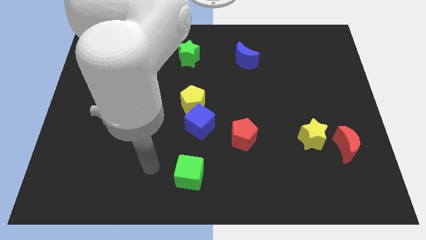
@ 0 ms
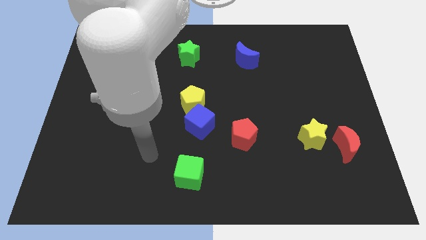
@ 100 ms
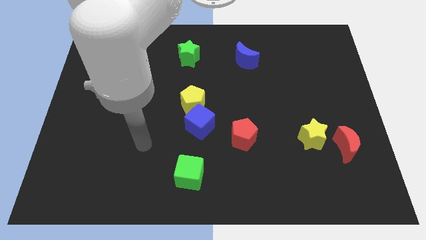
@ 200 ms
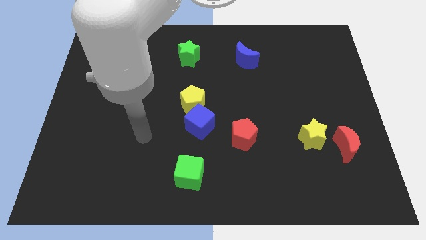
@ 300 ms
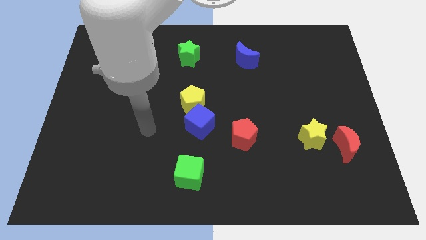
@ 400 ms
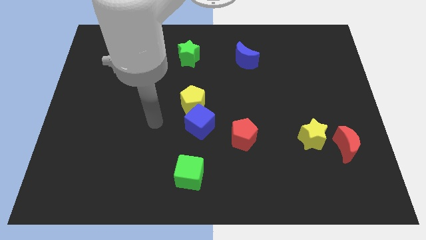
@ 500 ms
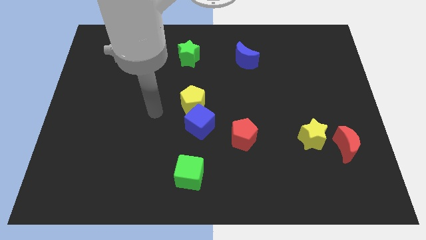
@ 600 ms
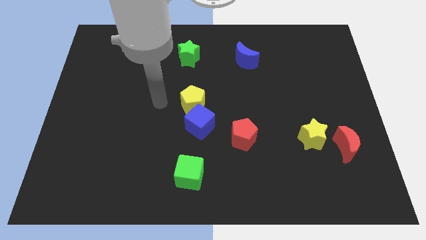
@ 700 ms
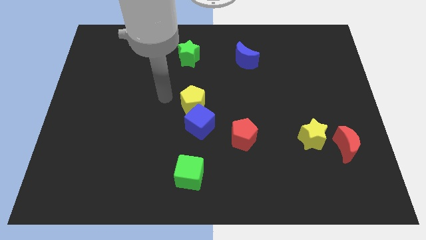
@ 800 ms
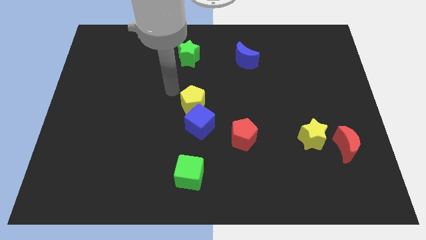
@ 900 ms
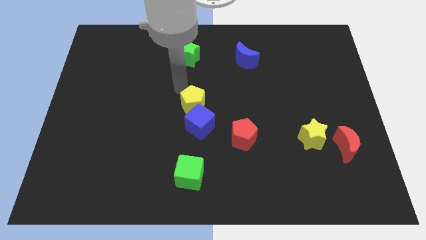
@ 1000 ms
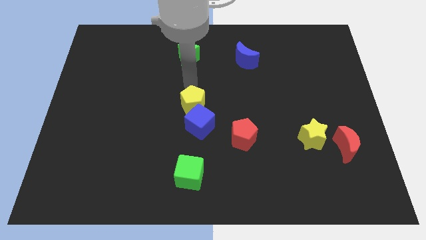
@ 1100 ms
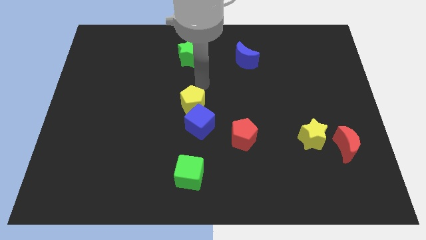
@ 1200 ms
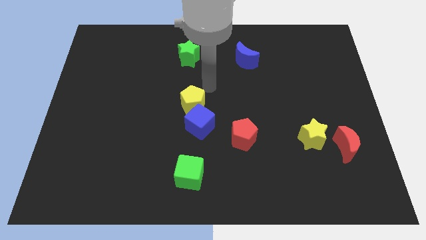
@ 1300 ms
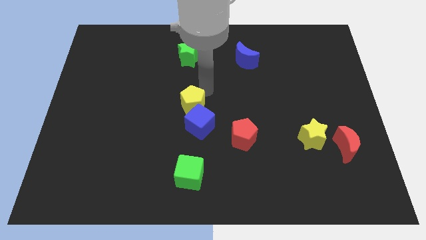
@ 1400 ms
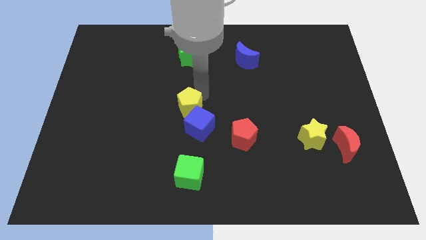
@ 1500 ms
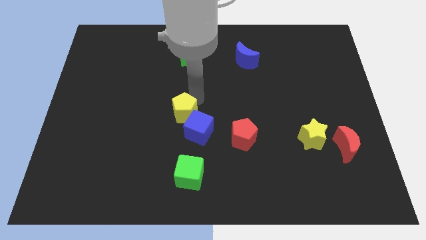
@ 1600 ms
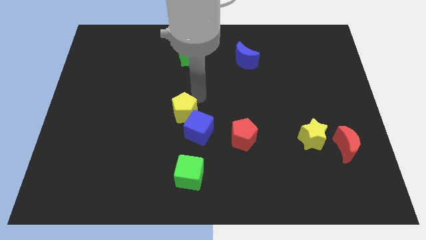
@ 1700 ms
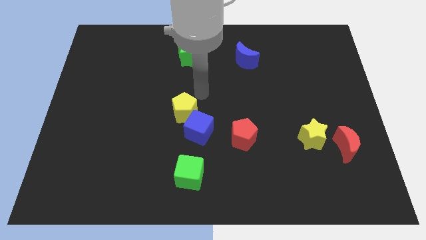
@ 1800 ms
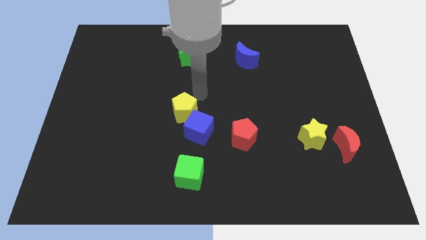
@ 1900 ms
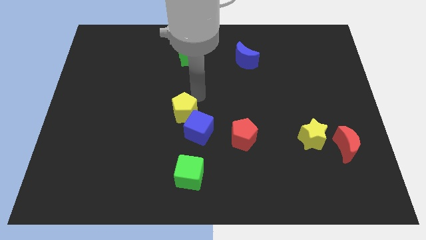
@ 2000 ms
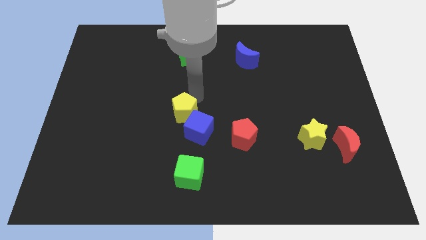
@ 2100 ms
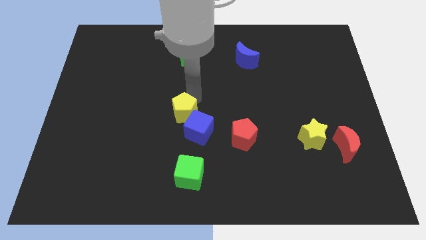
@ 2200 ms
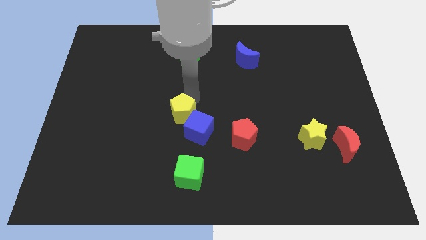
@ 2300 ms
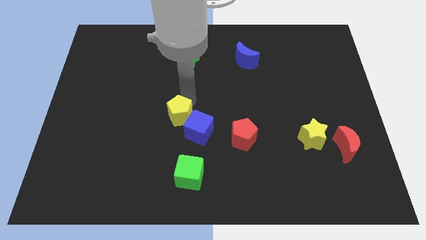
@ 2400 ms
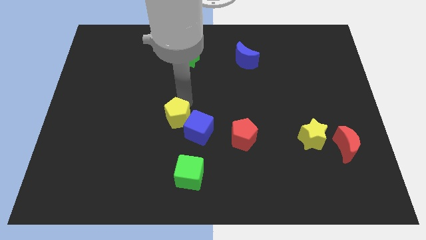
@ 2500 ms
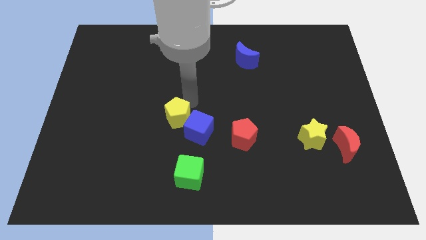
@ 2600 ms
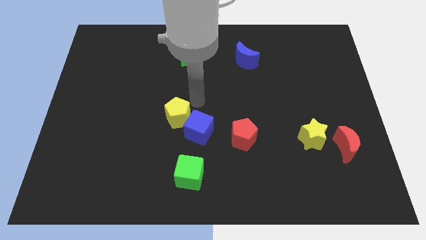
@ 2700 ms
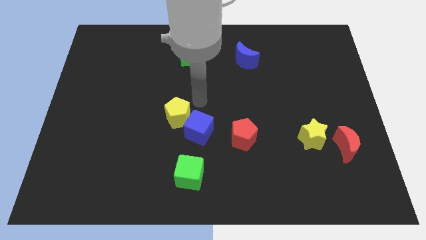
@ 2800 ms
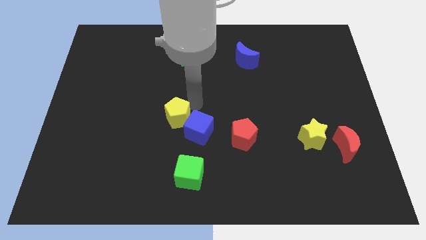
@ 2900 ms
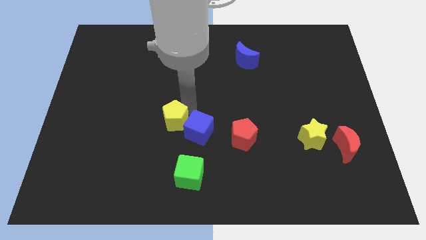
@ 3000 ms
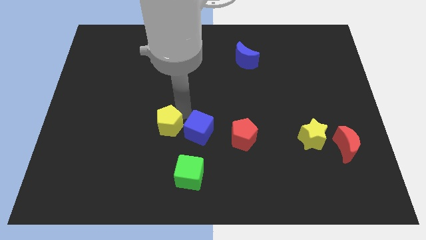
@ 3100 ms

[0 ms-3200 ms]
move the yellow pentagon down and then left somewhat

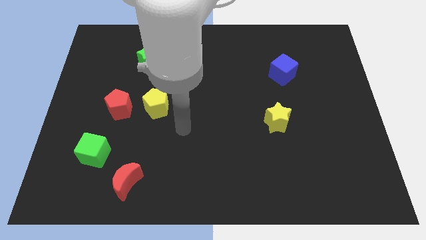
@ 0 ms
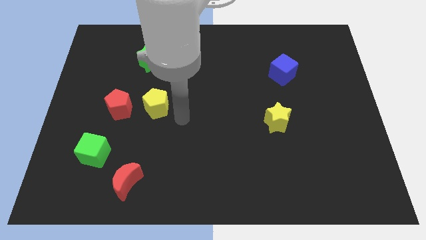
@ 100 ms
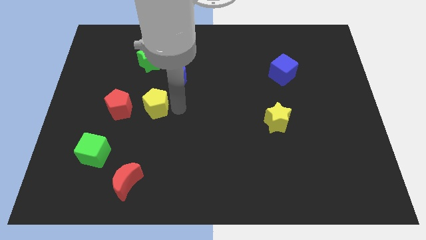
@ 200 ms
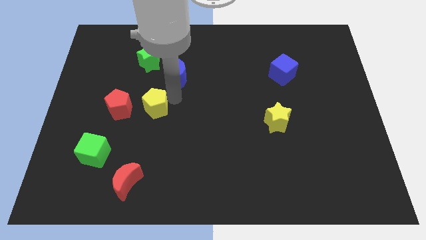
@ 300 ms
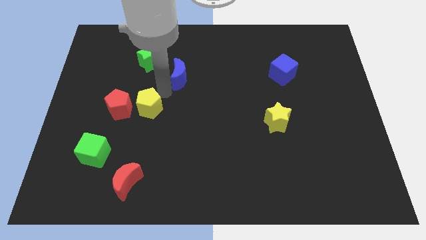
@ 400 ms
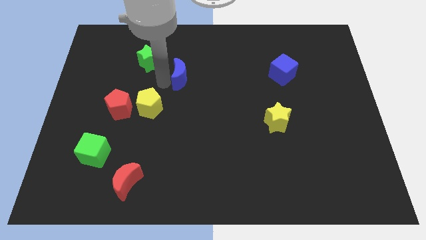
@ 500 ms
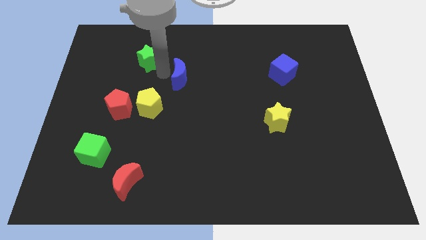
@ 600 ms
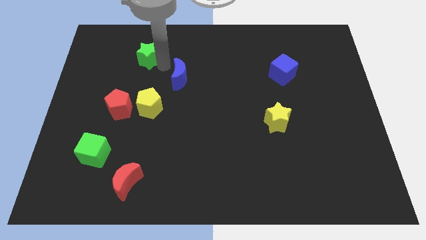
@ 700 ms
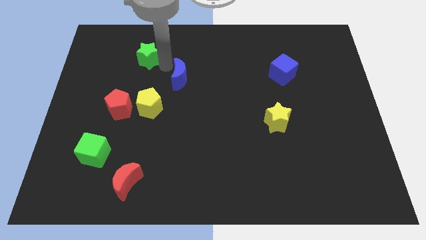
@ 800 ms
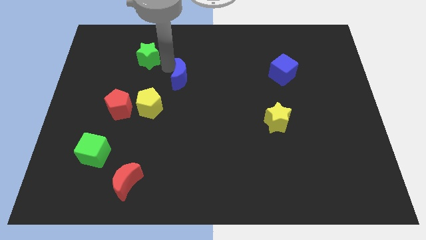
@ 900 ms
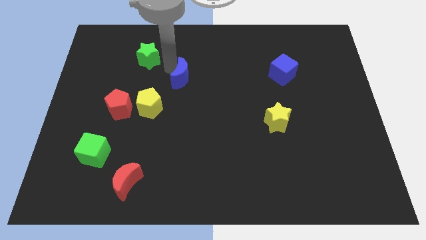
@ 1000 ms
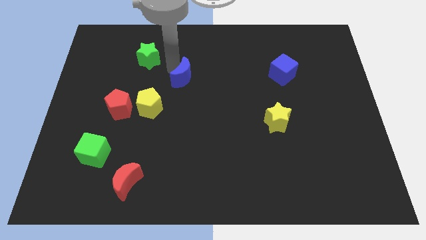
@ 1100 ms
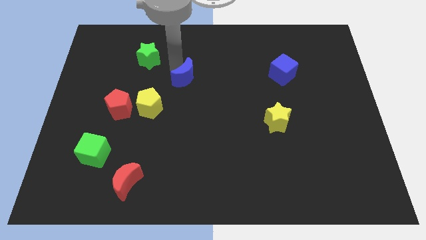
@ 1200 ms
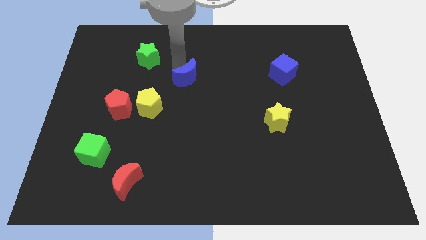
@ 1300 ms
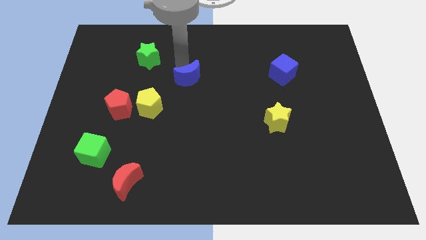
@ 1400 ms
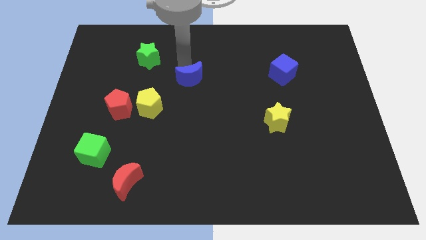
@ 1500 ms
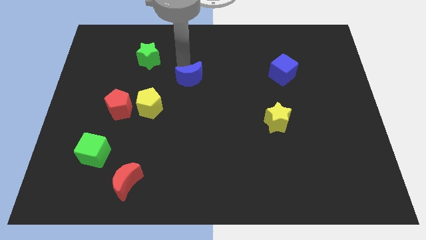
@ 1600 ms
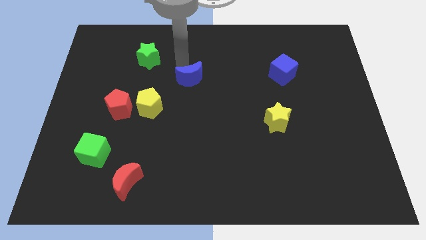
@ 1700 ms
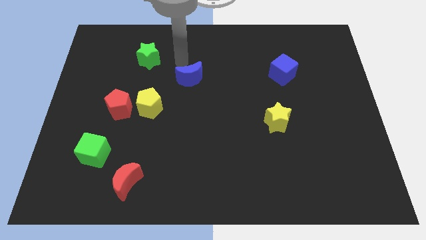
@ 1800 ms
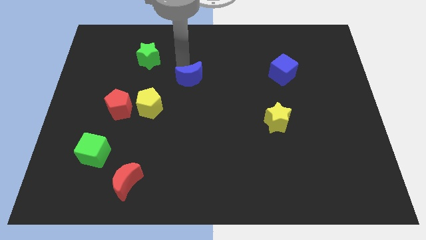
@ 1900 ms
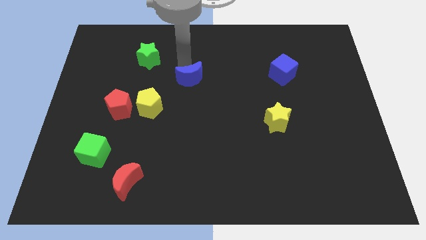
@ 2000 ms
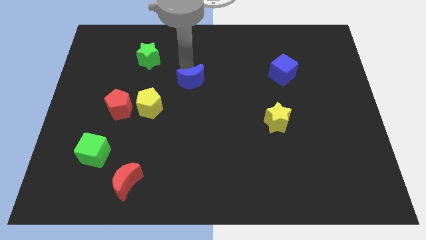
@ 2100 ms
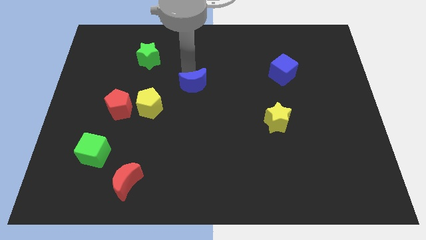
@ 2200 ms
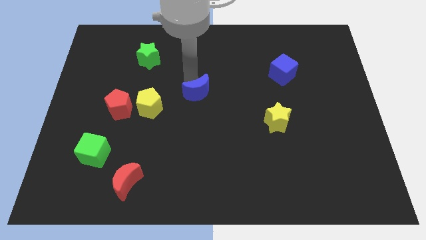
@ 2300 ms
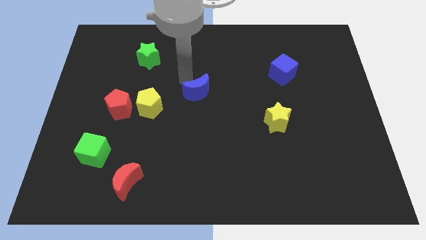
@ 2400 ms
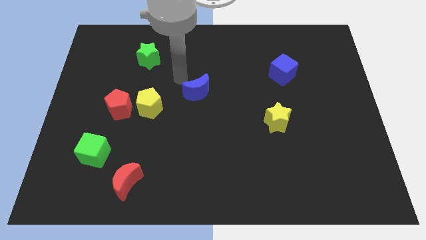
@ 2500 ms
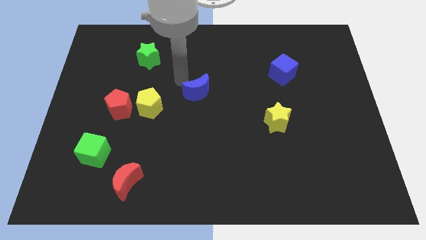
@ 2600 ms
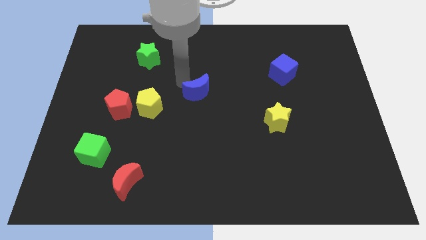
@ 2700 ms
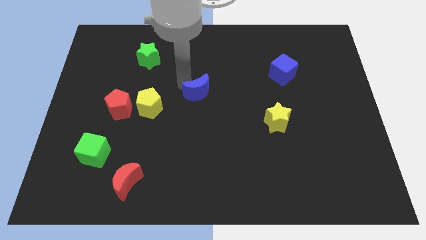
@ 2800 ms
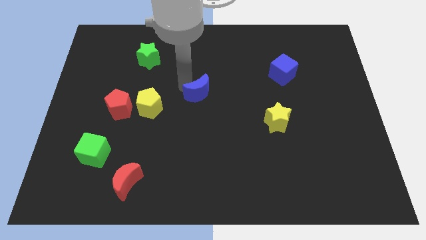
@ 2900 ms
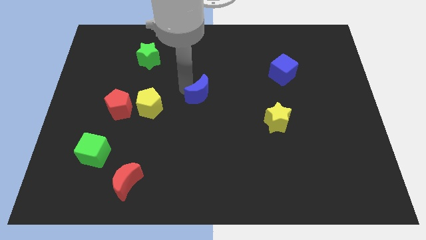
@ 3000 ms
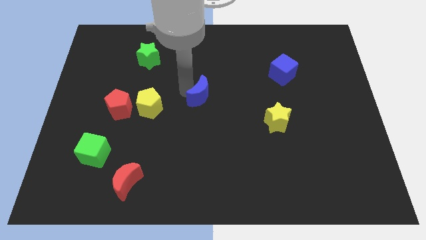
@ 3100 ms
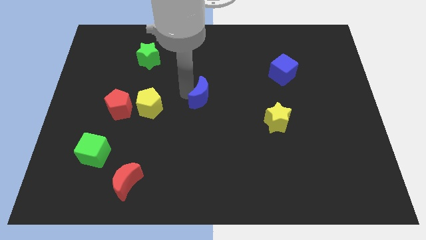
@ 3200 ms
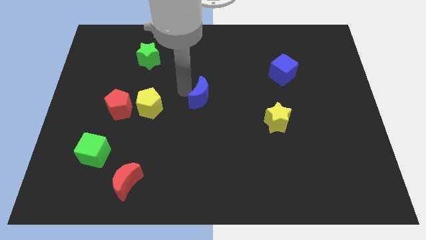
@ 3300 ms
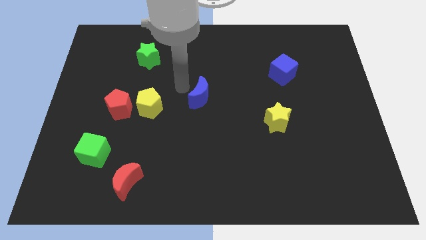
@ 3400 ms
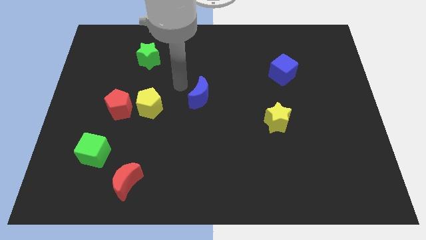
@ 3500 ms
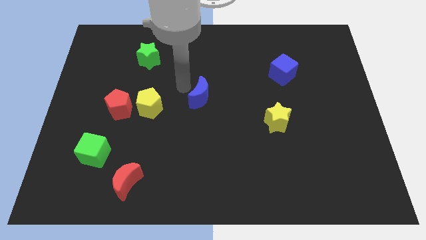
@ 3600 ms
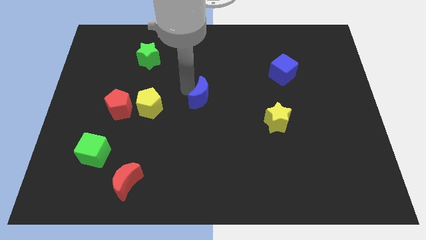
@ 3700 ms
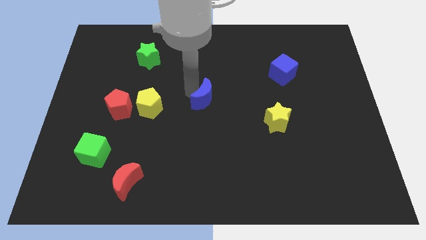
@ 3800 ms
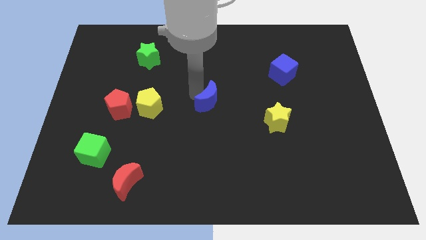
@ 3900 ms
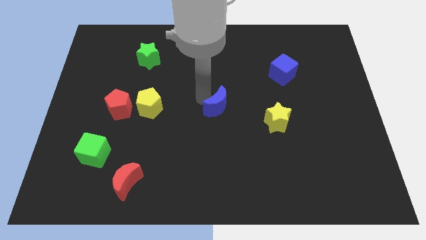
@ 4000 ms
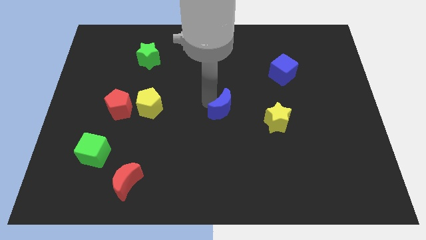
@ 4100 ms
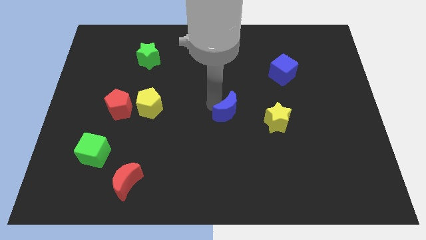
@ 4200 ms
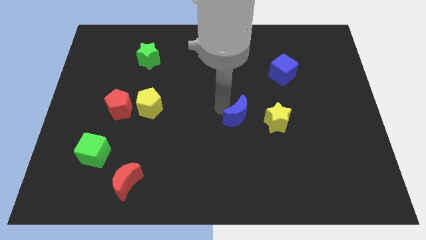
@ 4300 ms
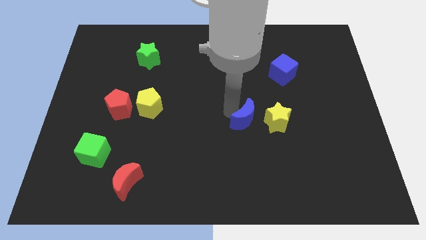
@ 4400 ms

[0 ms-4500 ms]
push the blue moon down and to the right diagonally
